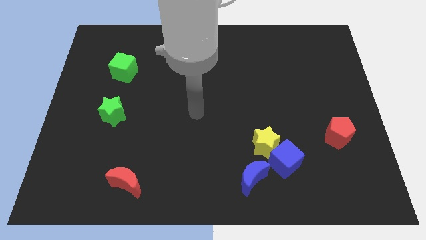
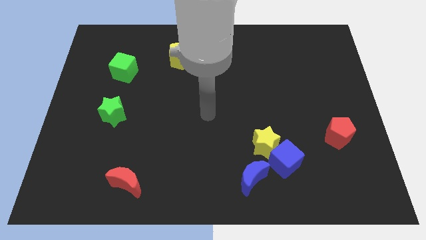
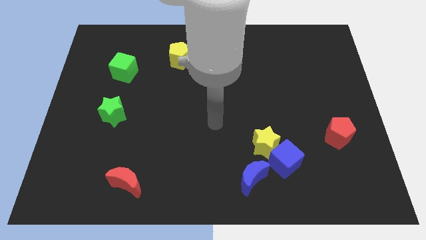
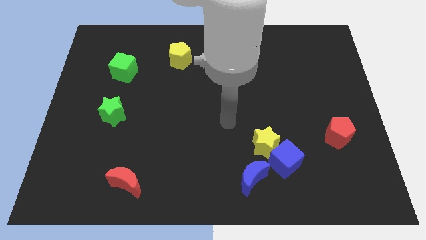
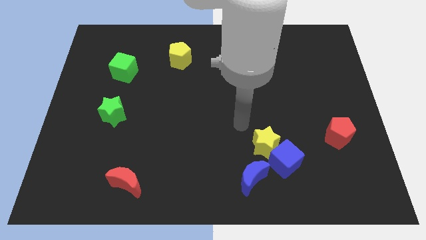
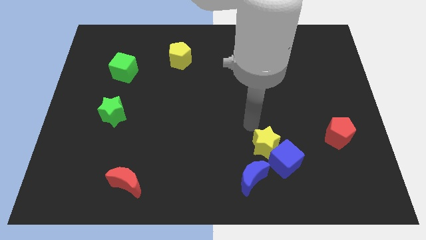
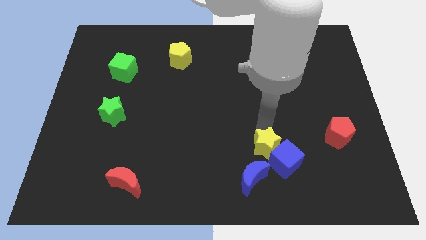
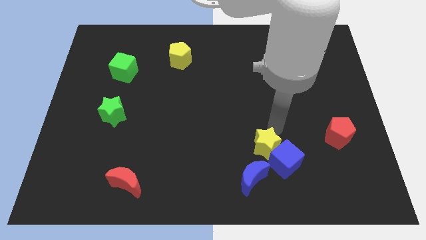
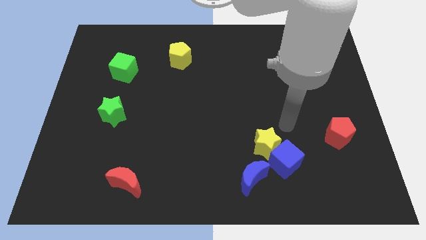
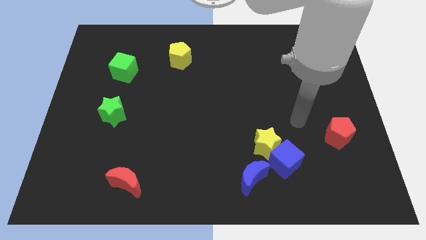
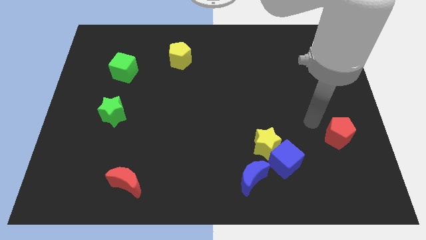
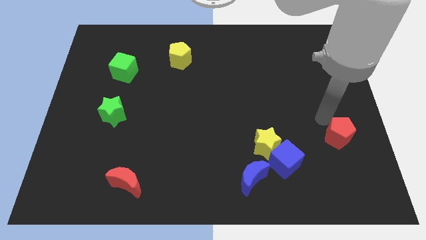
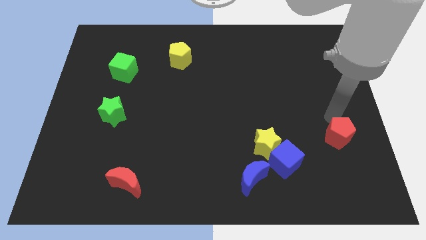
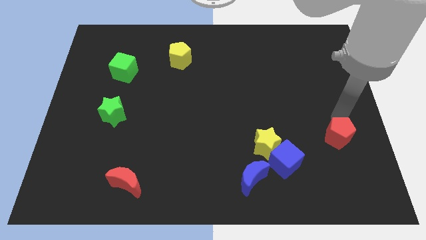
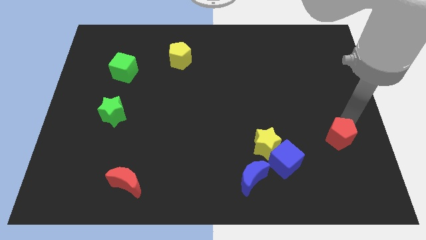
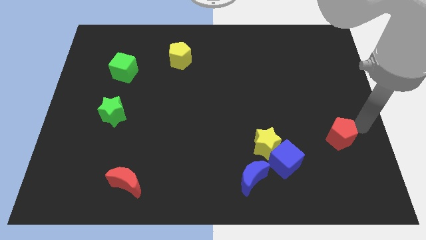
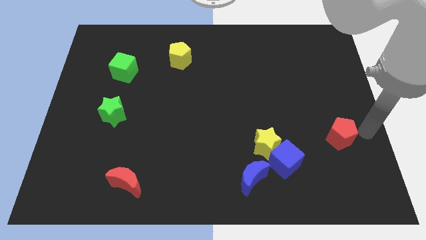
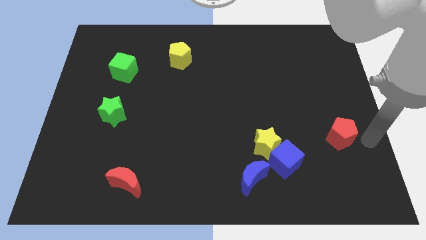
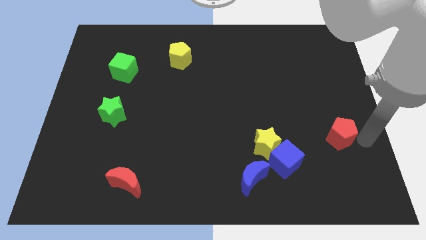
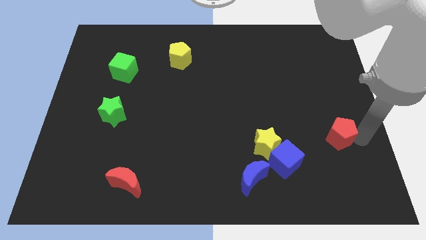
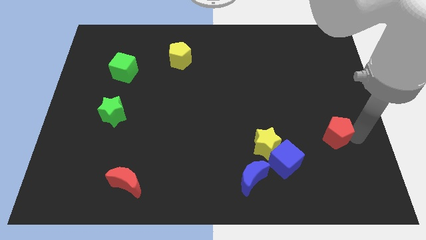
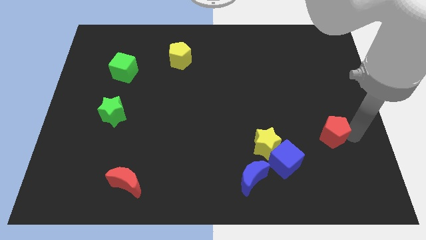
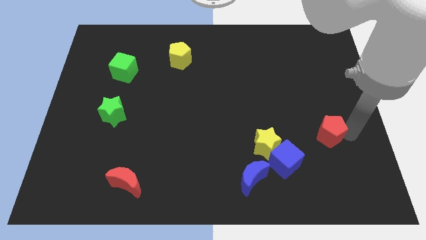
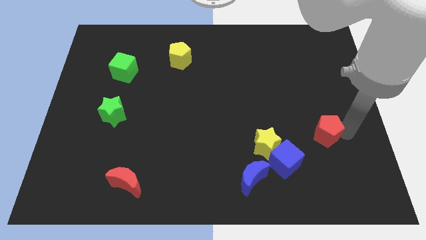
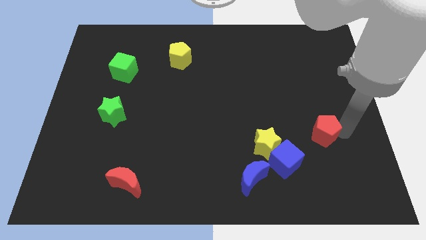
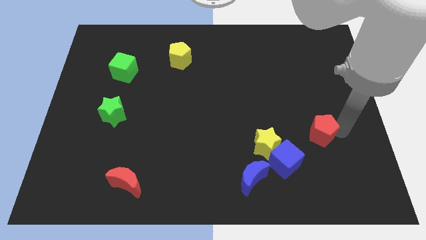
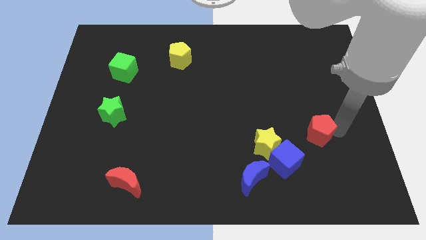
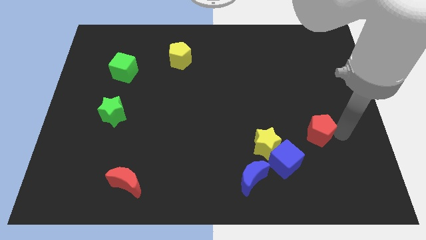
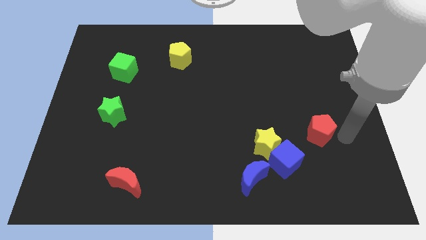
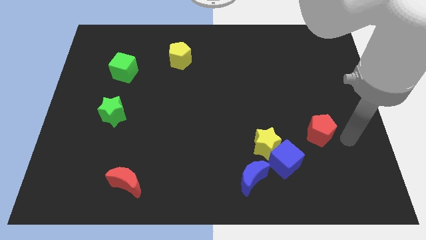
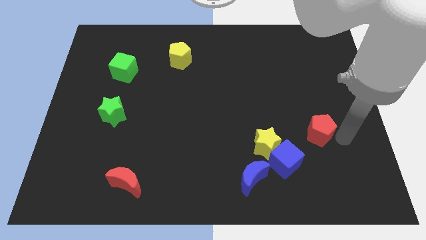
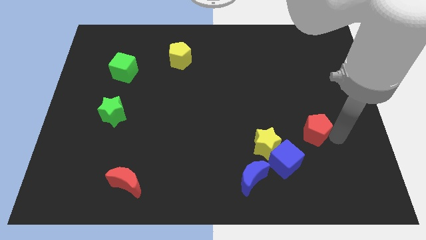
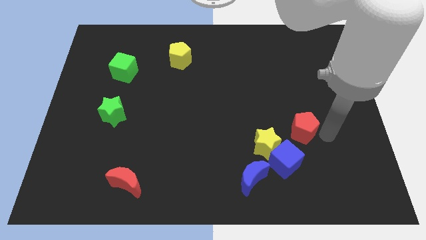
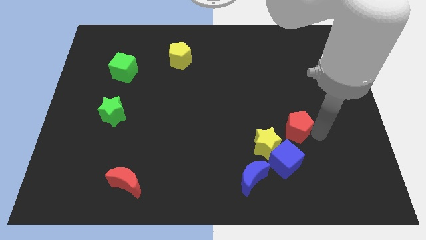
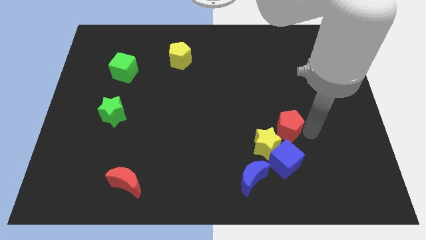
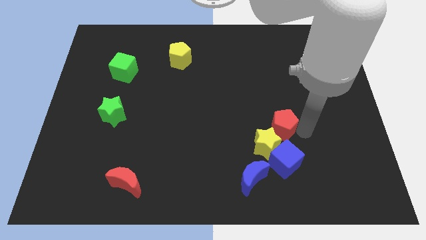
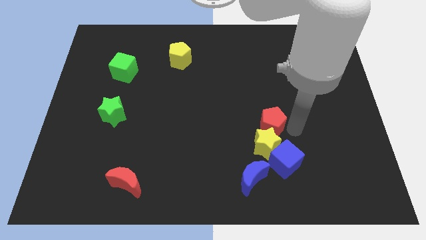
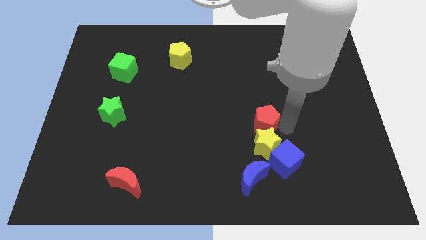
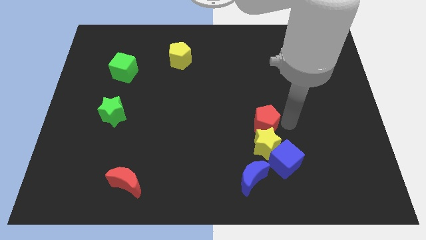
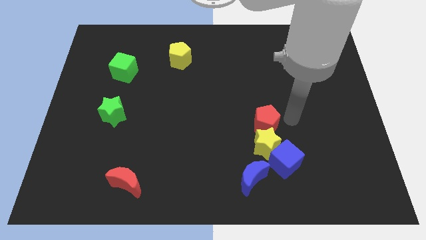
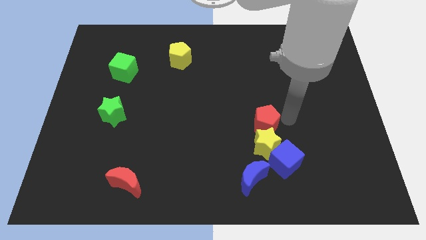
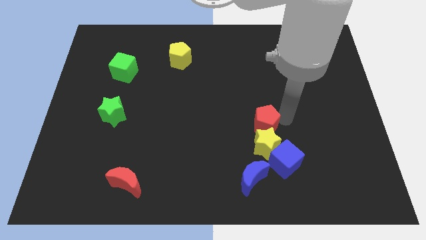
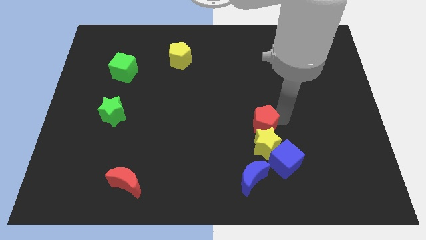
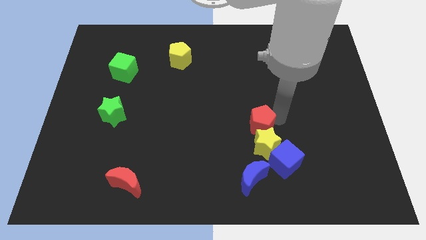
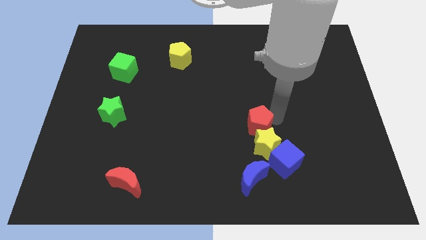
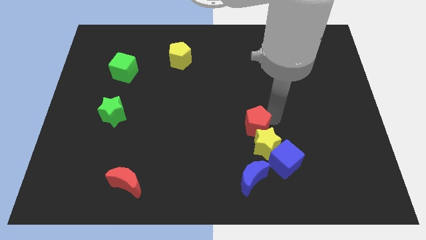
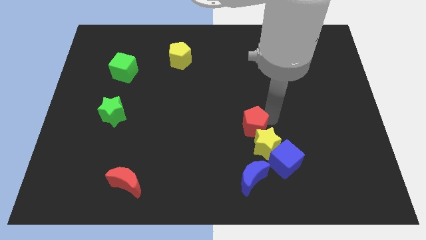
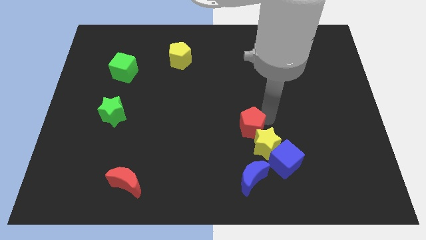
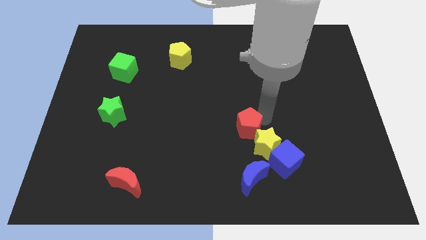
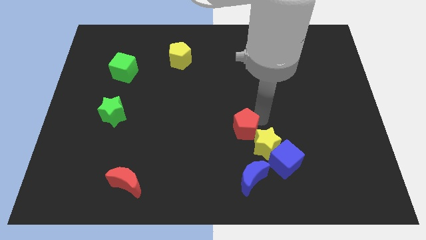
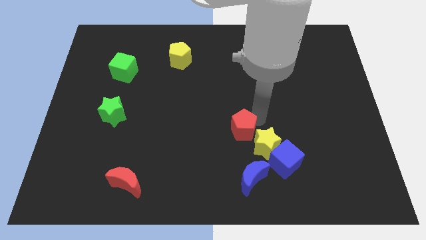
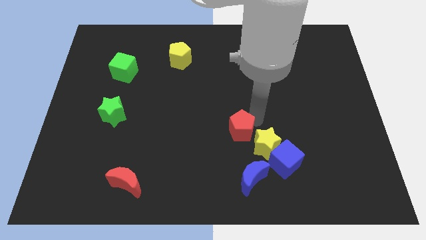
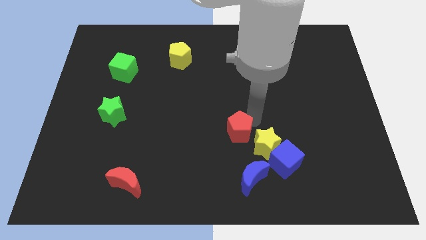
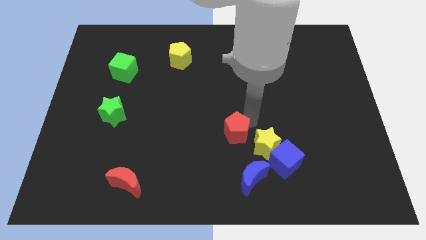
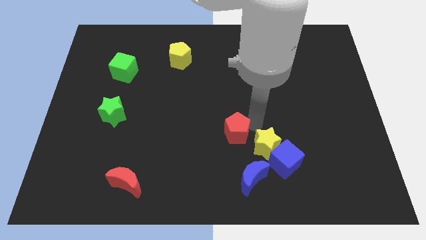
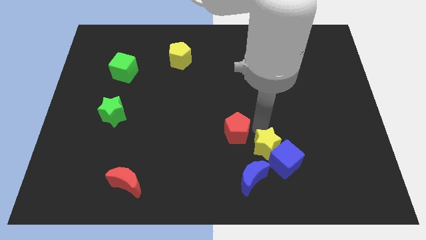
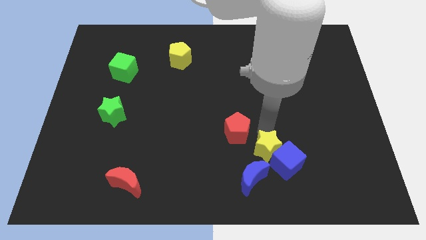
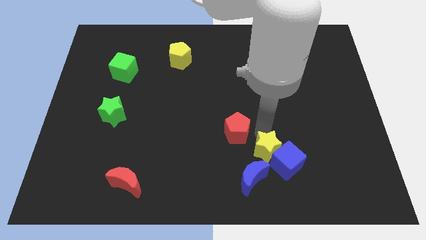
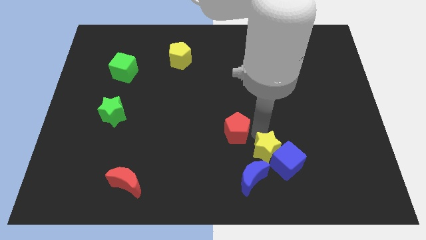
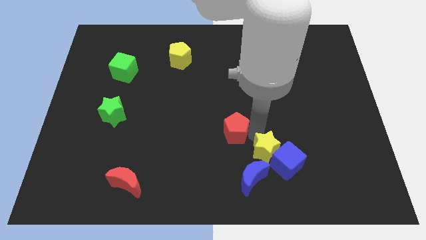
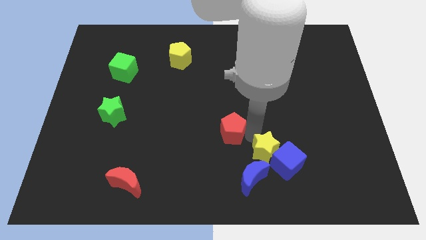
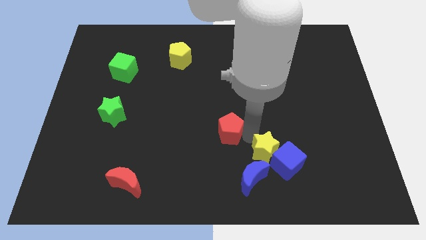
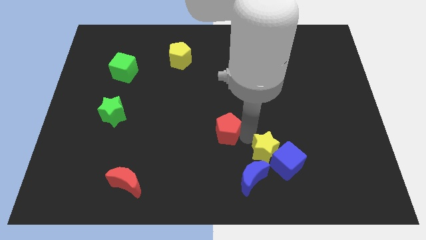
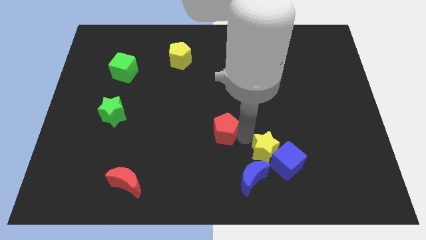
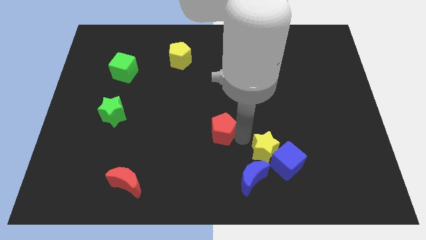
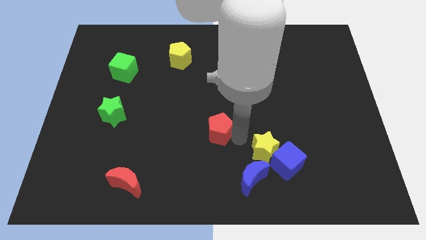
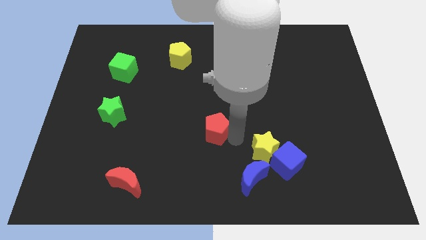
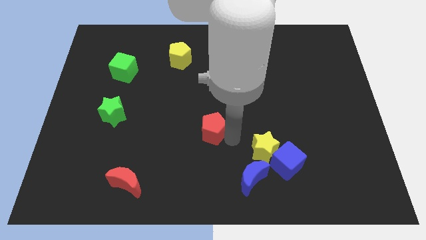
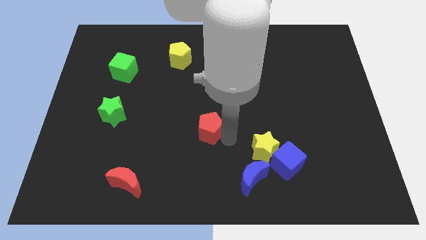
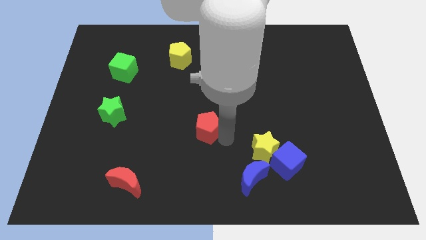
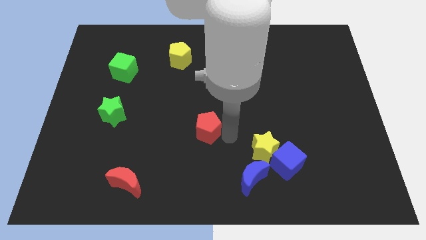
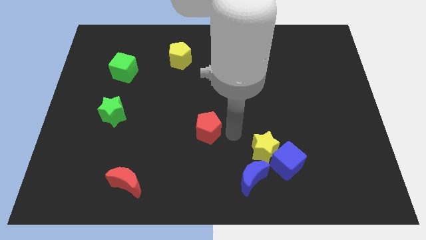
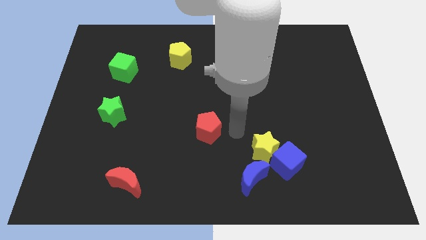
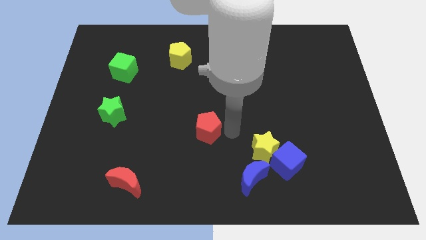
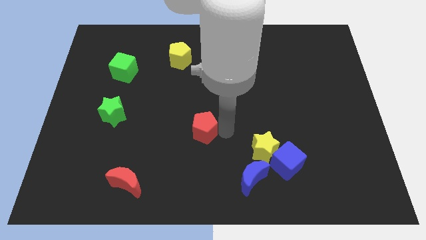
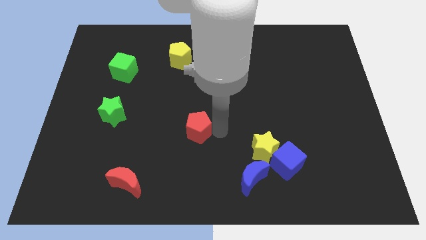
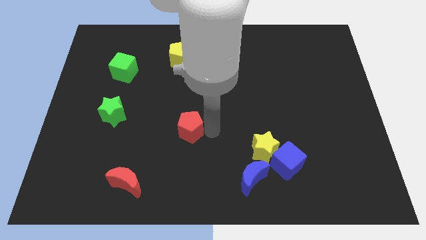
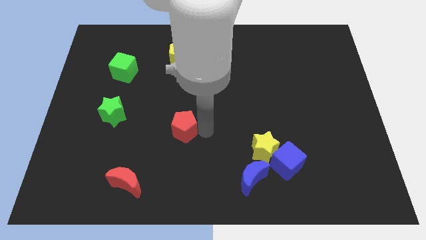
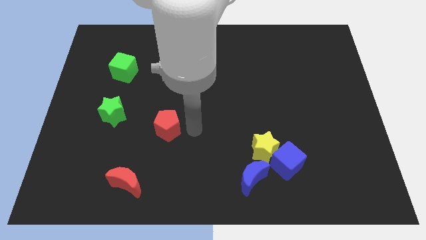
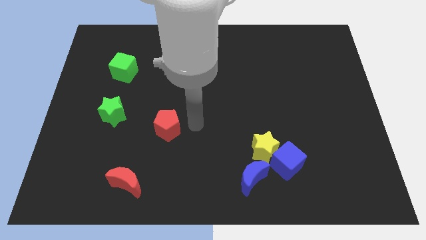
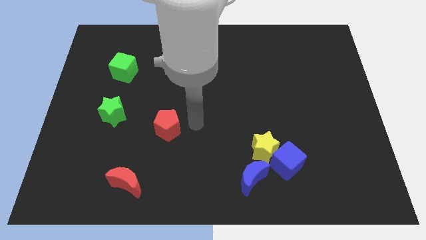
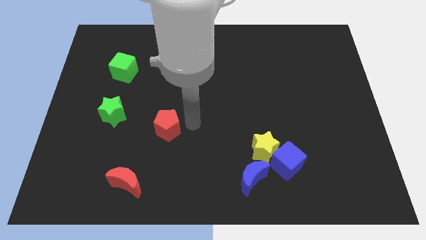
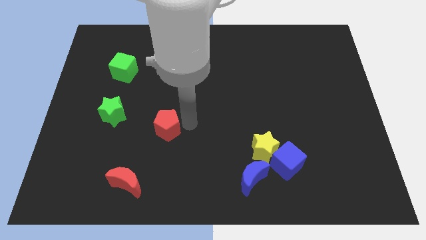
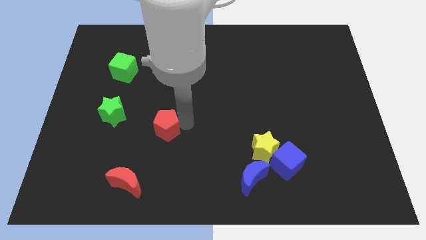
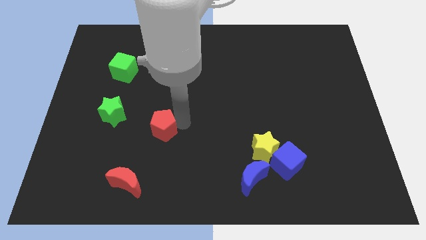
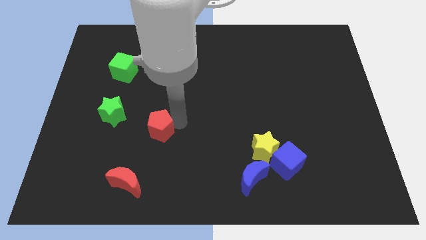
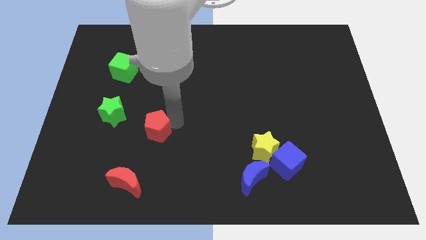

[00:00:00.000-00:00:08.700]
put the red pentagon to the bottom right of the green star
